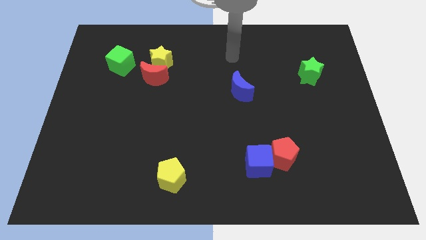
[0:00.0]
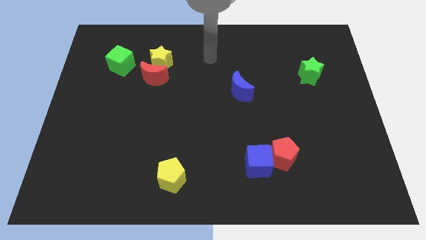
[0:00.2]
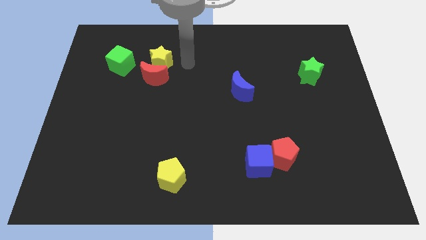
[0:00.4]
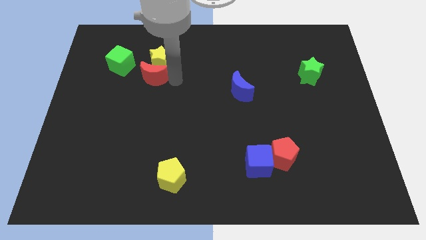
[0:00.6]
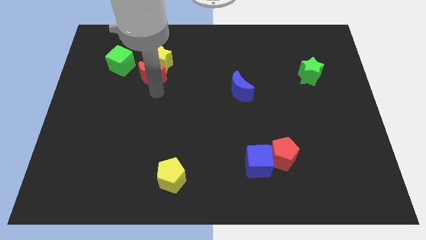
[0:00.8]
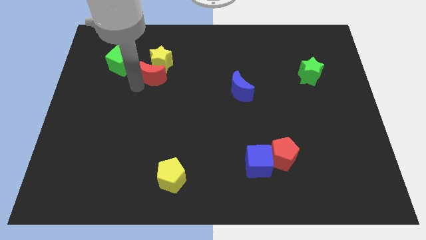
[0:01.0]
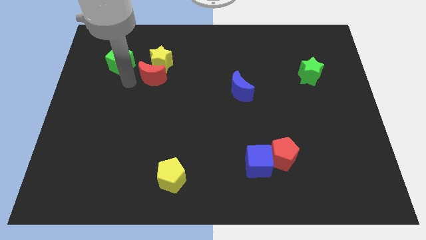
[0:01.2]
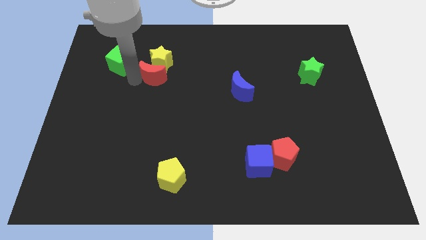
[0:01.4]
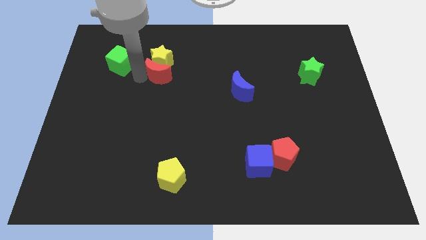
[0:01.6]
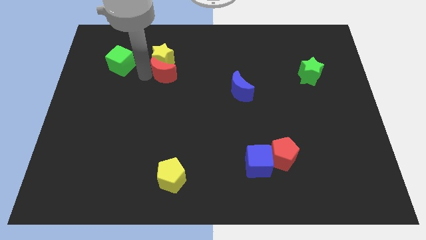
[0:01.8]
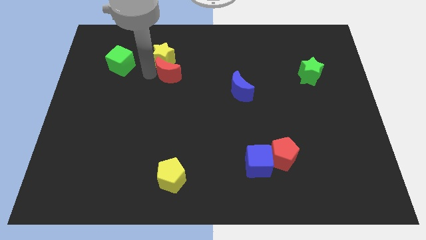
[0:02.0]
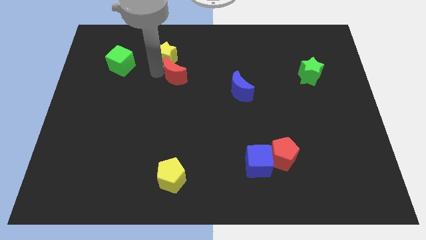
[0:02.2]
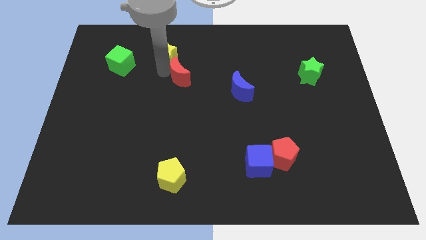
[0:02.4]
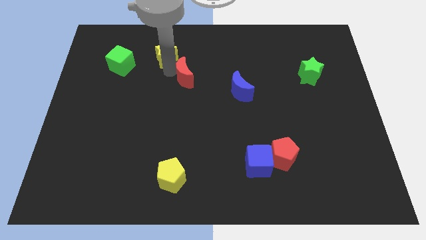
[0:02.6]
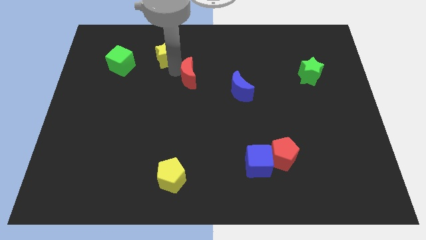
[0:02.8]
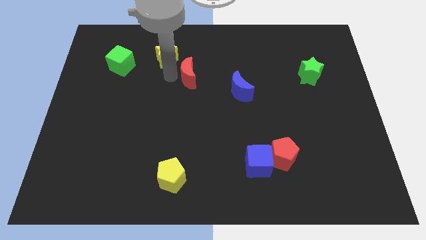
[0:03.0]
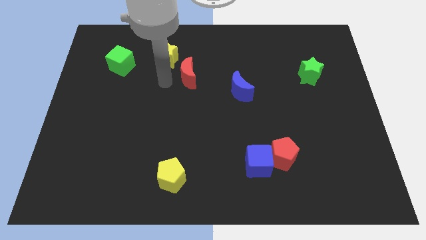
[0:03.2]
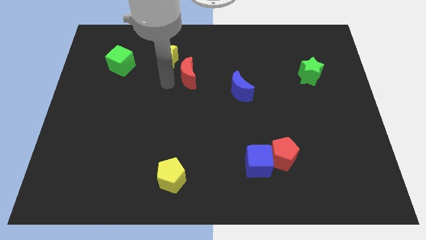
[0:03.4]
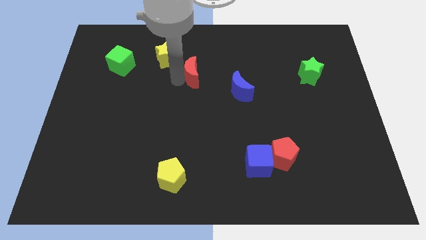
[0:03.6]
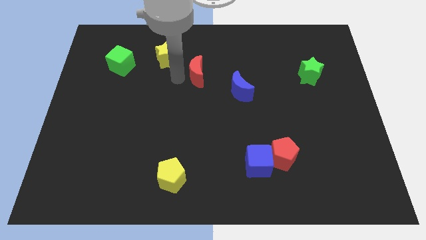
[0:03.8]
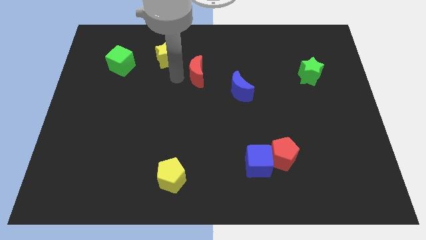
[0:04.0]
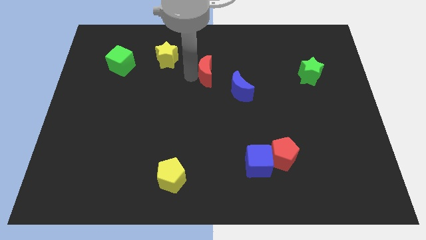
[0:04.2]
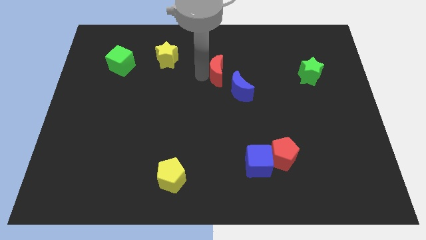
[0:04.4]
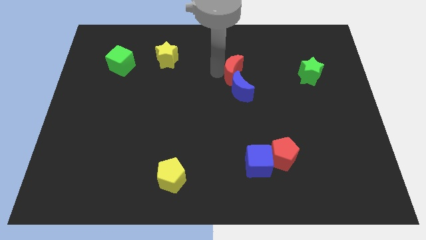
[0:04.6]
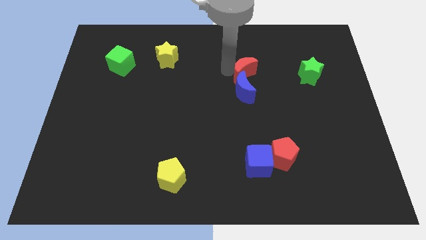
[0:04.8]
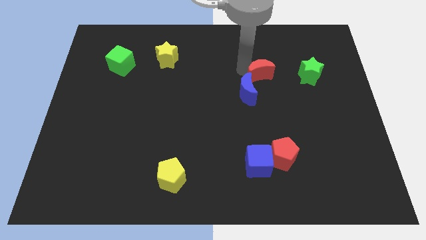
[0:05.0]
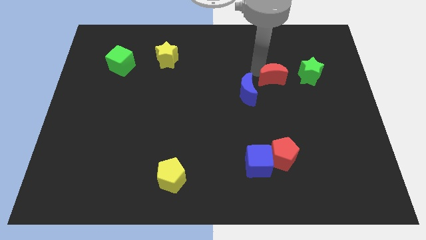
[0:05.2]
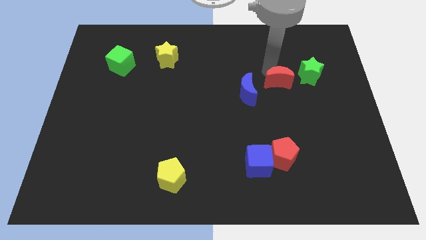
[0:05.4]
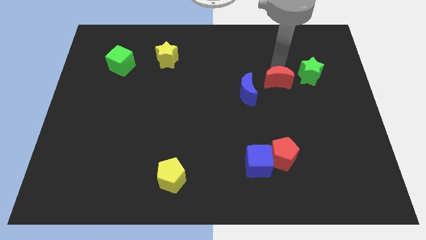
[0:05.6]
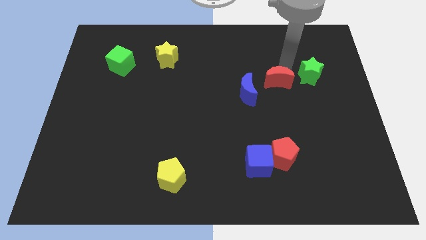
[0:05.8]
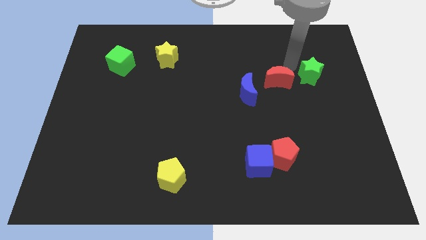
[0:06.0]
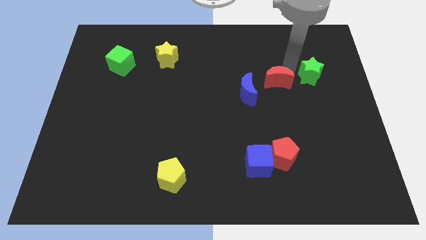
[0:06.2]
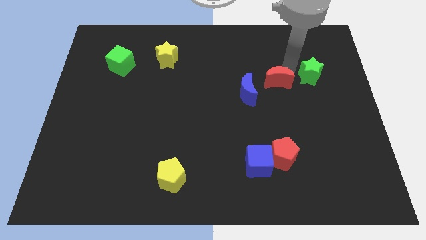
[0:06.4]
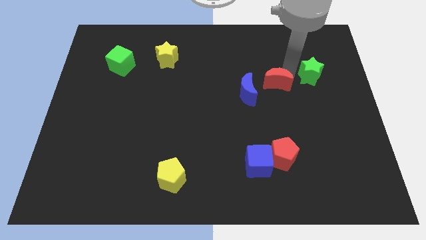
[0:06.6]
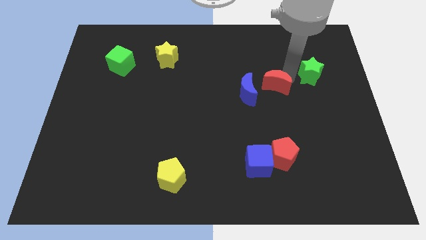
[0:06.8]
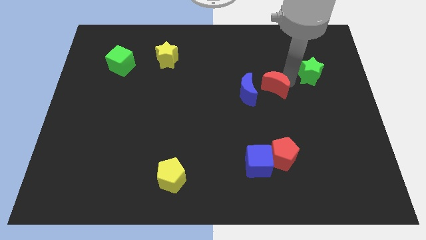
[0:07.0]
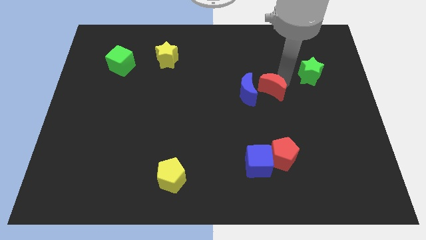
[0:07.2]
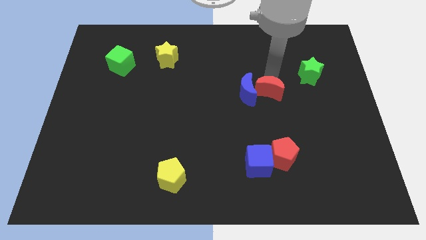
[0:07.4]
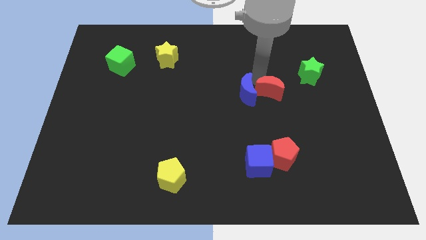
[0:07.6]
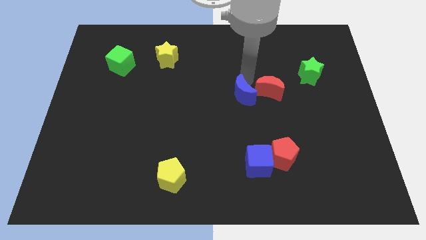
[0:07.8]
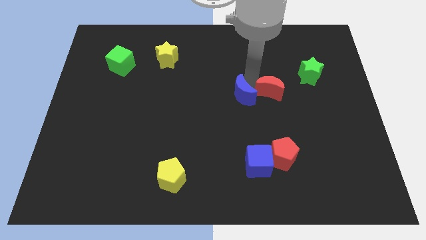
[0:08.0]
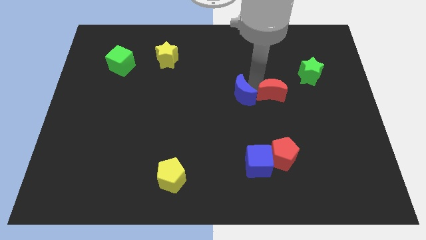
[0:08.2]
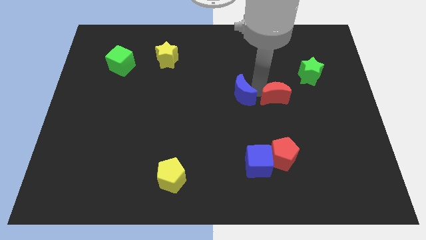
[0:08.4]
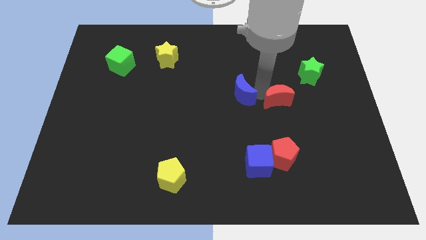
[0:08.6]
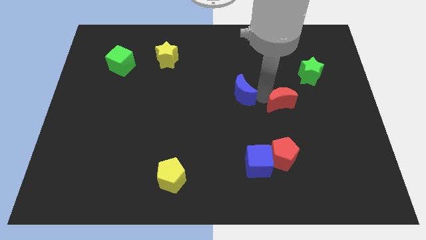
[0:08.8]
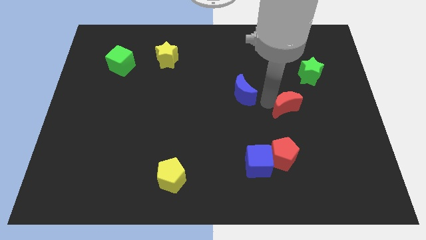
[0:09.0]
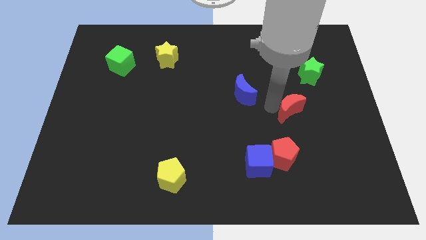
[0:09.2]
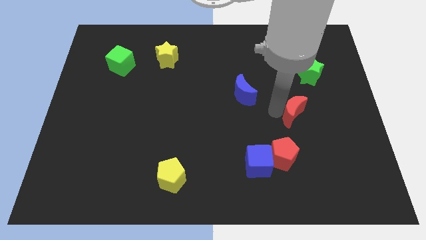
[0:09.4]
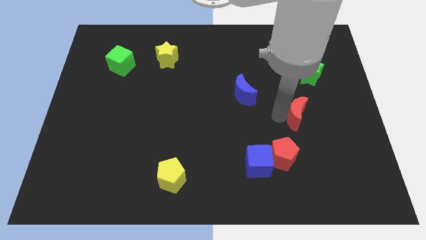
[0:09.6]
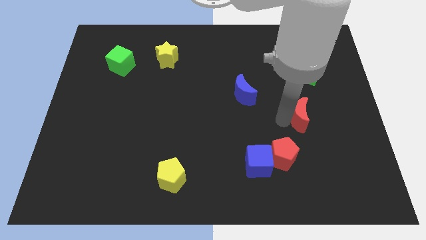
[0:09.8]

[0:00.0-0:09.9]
slide the red moon to the bottom side of the green star

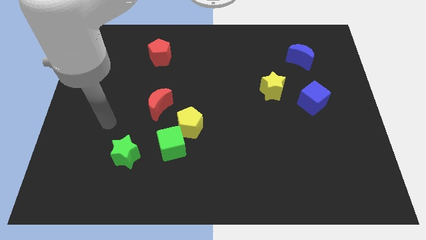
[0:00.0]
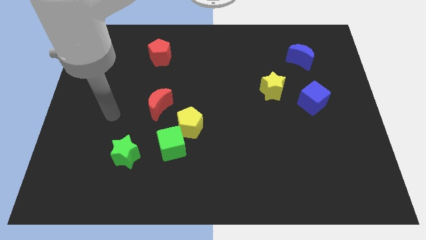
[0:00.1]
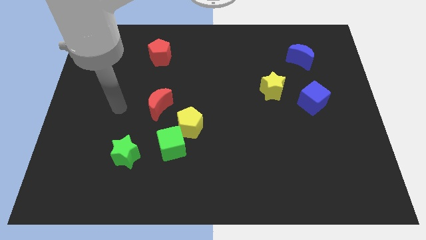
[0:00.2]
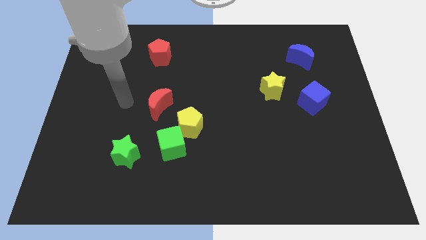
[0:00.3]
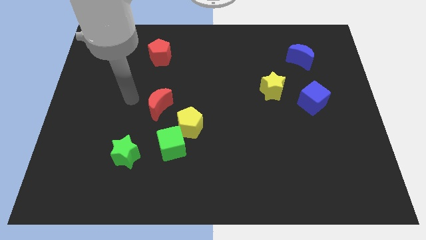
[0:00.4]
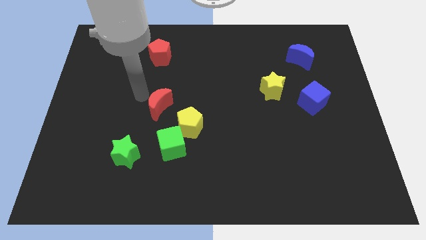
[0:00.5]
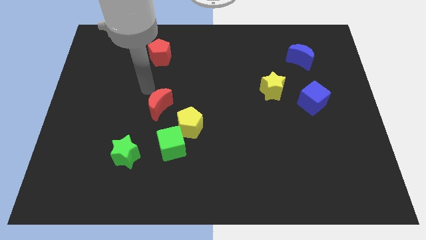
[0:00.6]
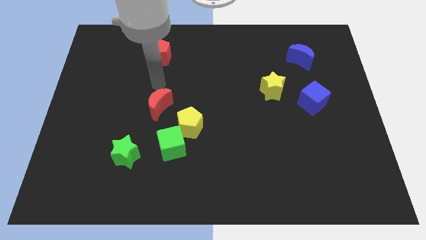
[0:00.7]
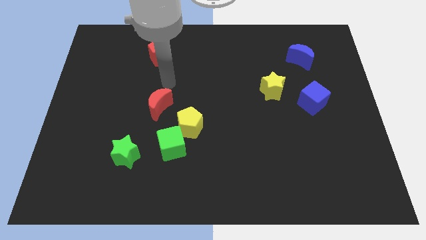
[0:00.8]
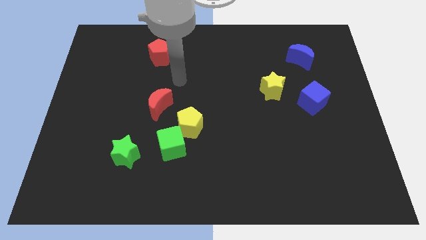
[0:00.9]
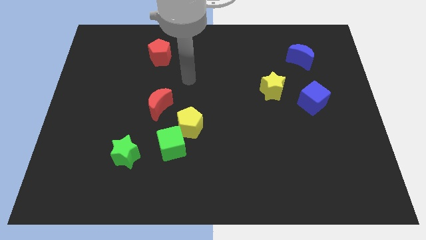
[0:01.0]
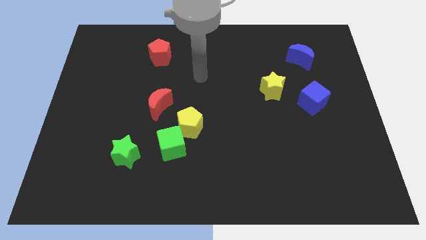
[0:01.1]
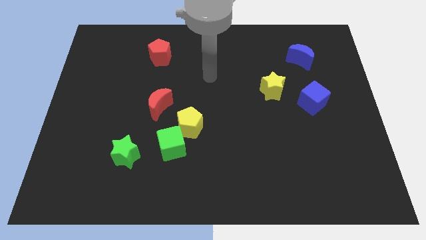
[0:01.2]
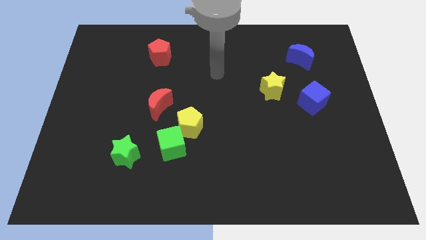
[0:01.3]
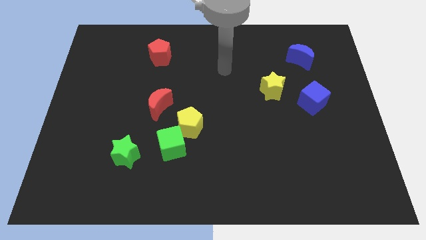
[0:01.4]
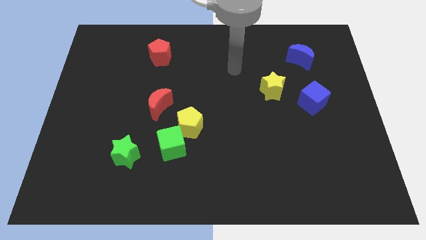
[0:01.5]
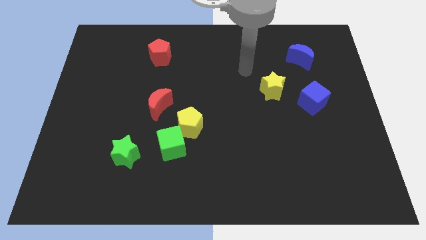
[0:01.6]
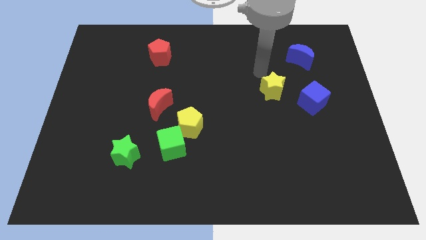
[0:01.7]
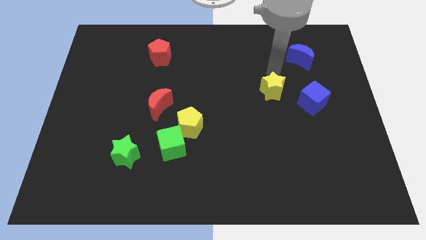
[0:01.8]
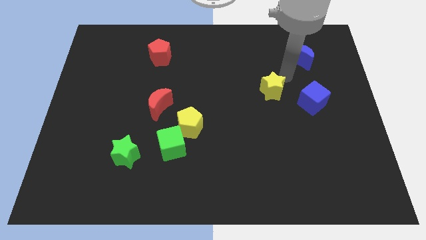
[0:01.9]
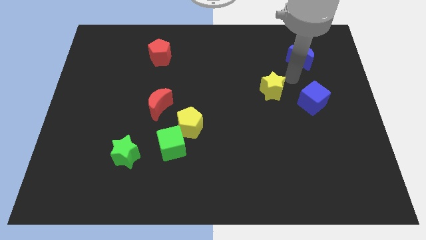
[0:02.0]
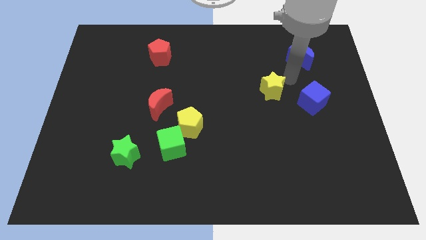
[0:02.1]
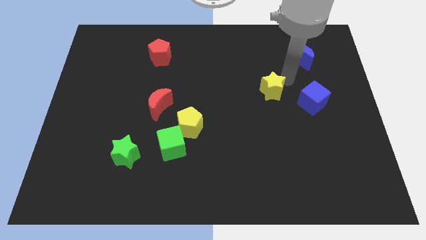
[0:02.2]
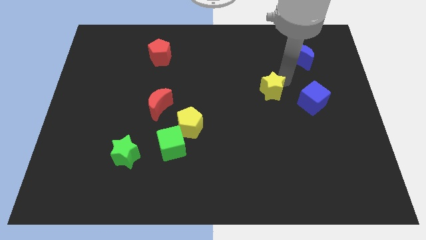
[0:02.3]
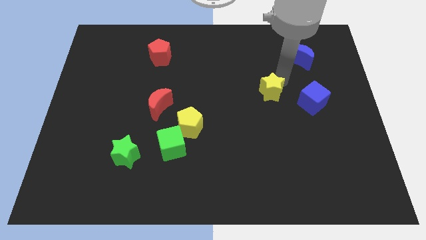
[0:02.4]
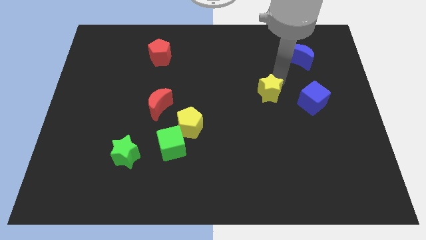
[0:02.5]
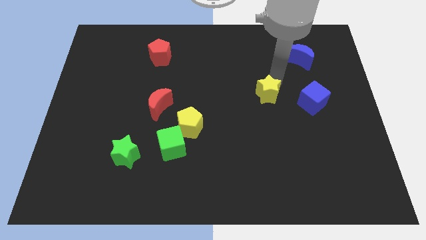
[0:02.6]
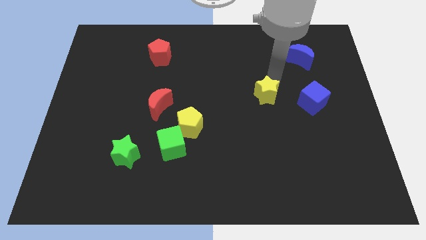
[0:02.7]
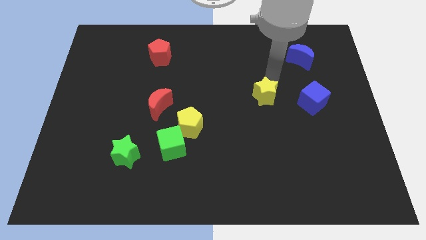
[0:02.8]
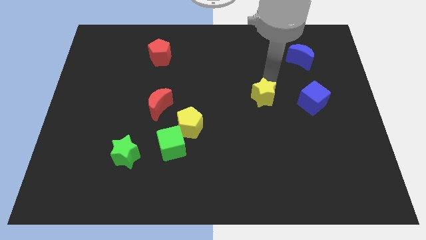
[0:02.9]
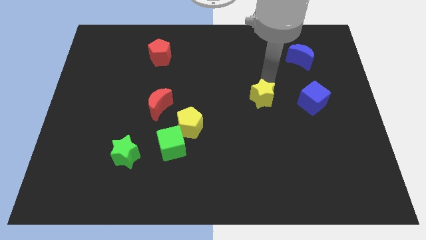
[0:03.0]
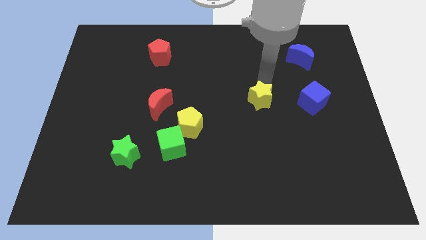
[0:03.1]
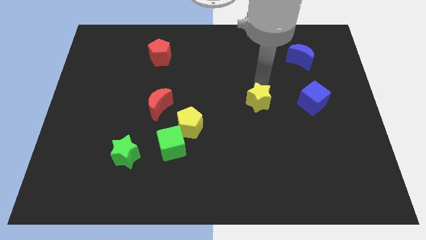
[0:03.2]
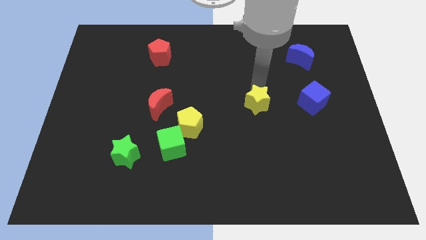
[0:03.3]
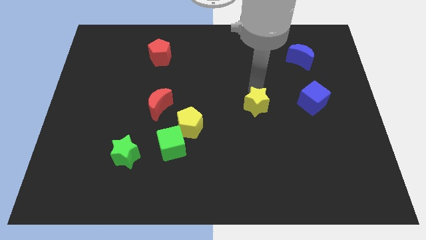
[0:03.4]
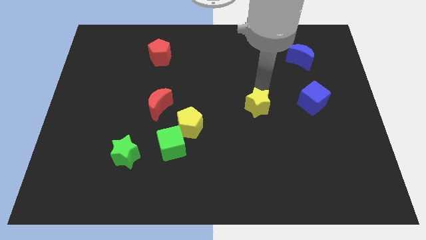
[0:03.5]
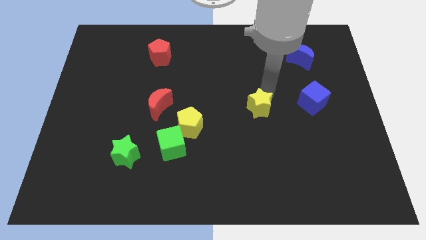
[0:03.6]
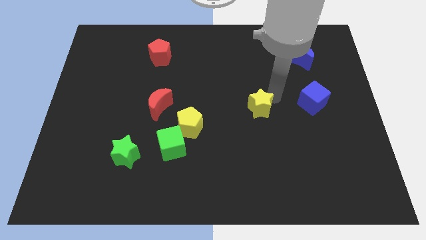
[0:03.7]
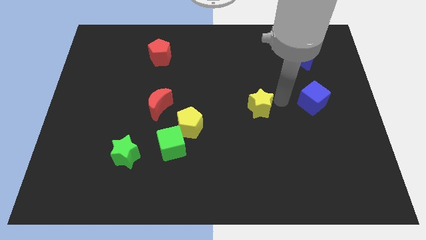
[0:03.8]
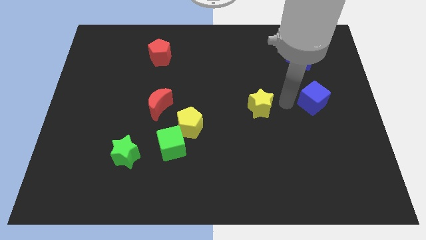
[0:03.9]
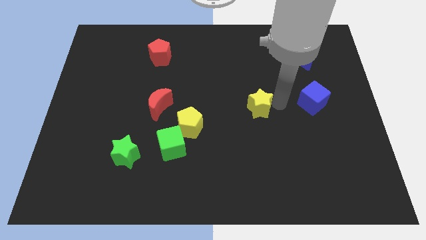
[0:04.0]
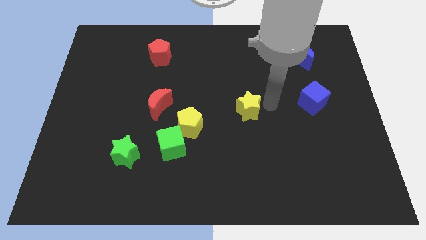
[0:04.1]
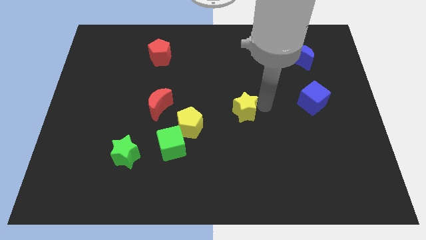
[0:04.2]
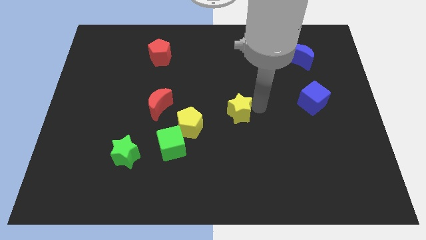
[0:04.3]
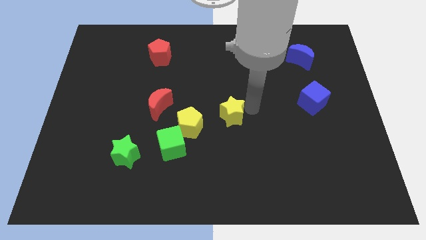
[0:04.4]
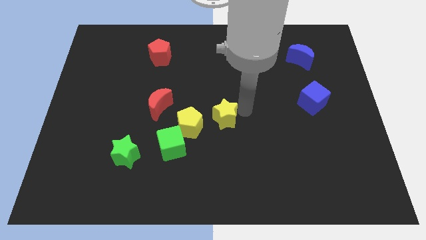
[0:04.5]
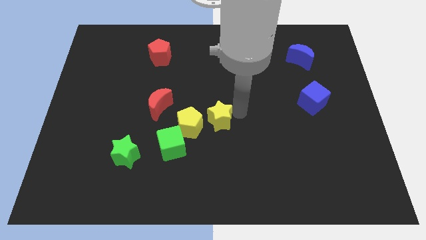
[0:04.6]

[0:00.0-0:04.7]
slide the yellow star to the top right of the green cube
